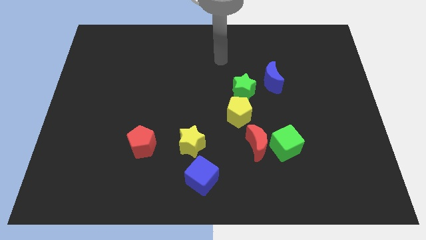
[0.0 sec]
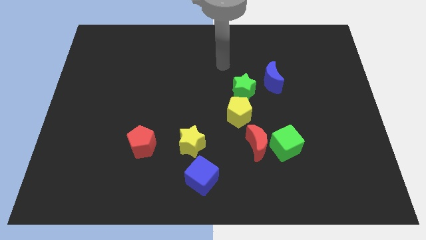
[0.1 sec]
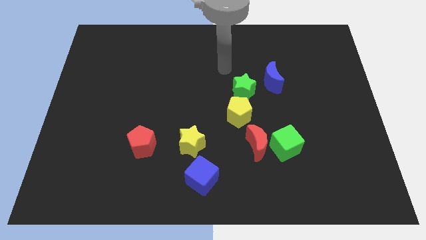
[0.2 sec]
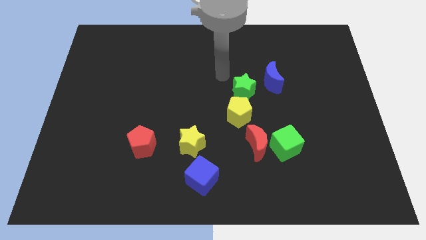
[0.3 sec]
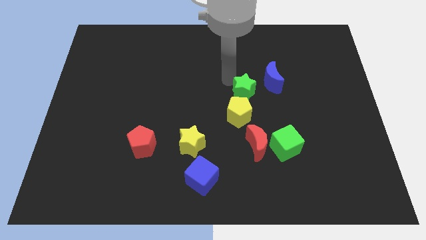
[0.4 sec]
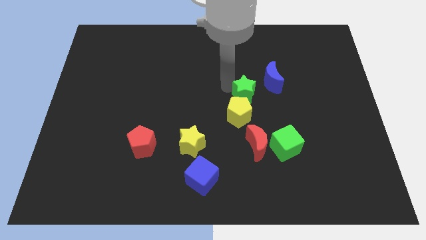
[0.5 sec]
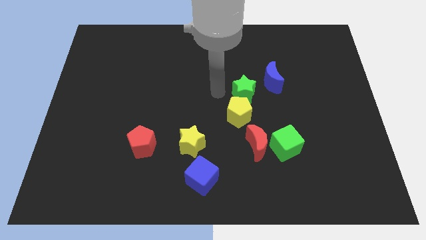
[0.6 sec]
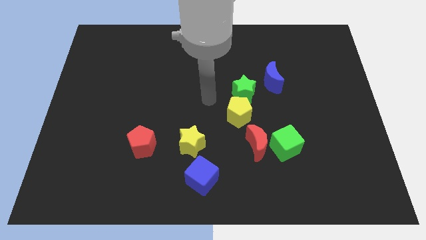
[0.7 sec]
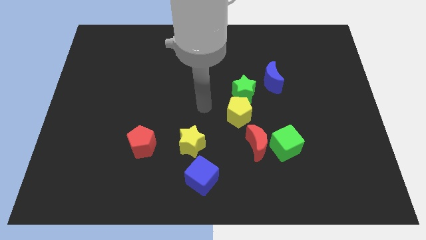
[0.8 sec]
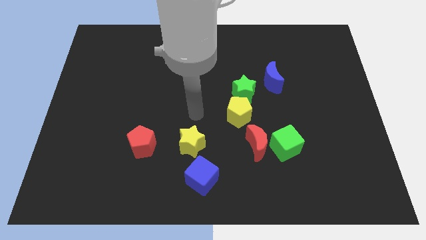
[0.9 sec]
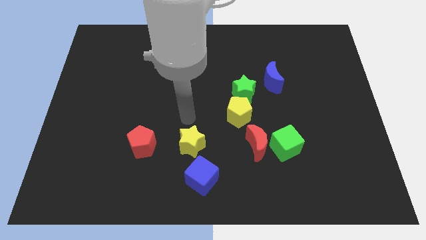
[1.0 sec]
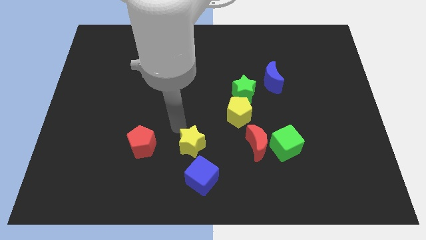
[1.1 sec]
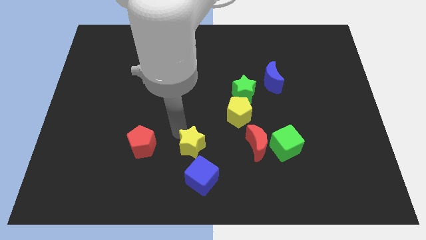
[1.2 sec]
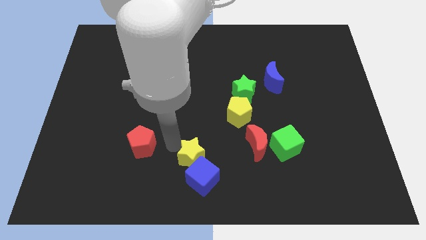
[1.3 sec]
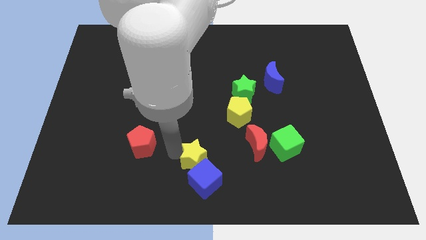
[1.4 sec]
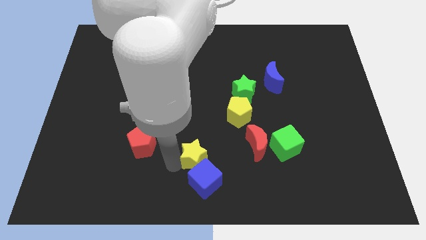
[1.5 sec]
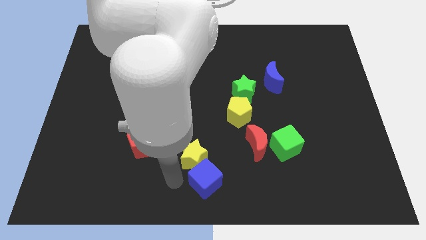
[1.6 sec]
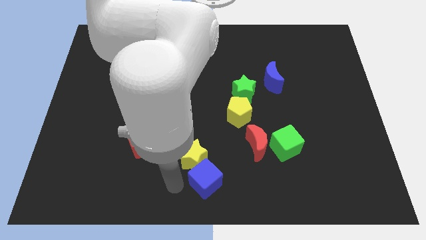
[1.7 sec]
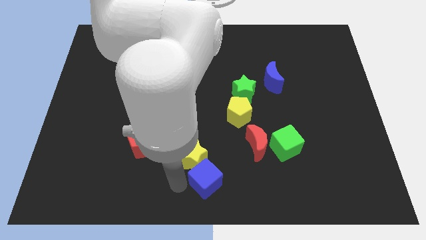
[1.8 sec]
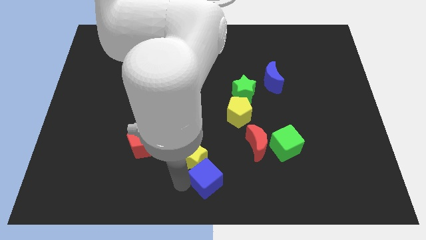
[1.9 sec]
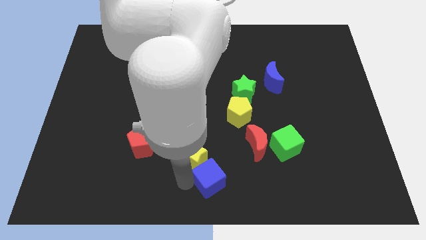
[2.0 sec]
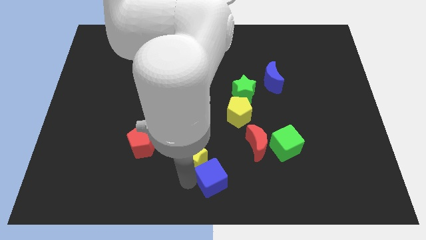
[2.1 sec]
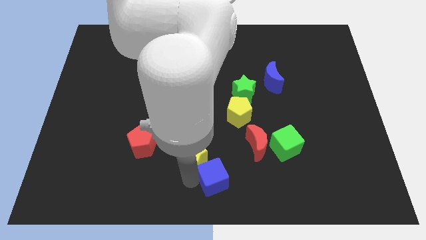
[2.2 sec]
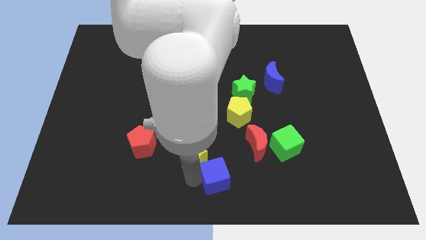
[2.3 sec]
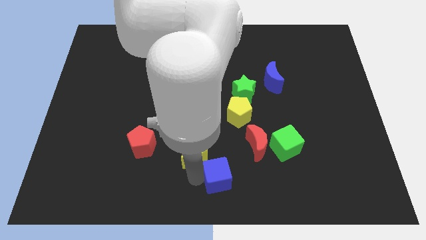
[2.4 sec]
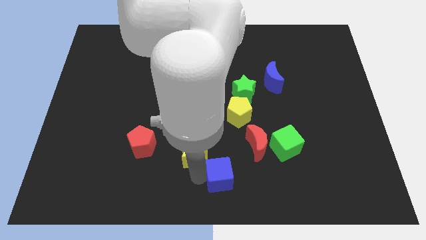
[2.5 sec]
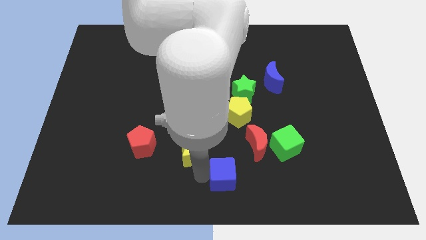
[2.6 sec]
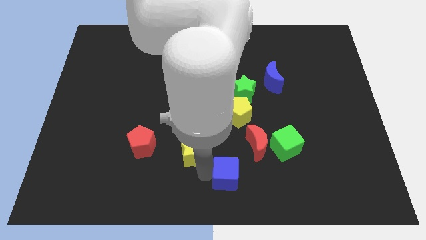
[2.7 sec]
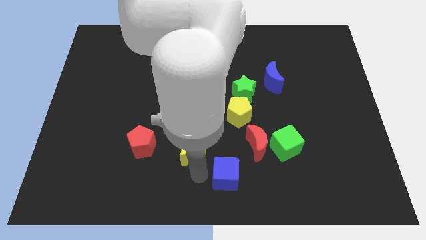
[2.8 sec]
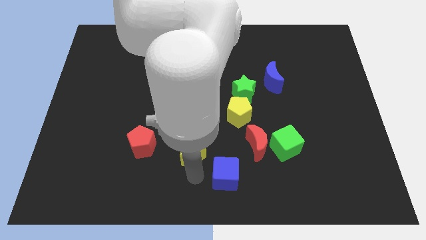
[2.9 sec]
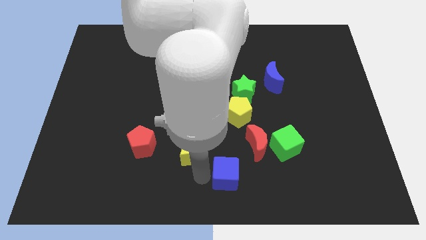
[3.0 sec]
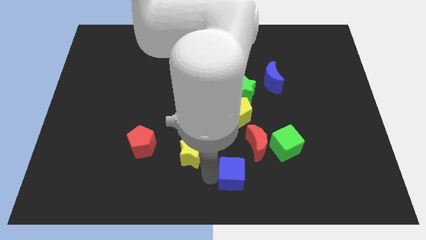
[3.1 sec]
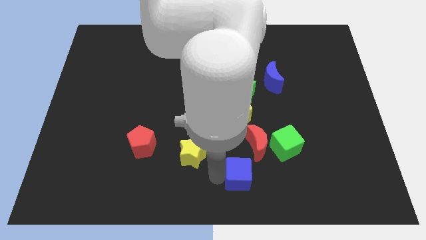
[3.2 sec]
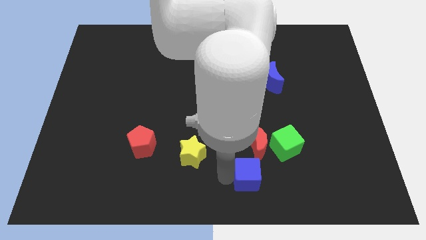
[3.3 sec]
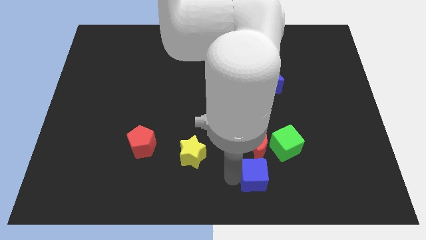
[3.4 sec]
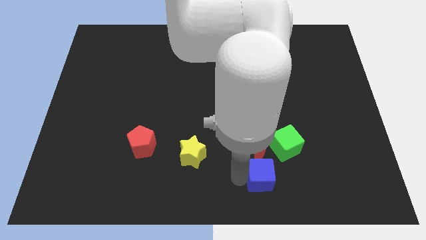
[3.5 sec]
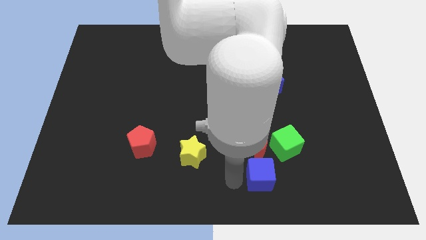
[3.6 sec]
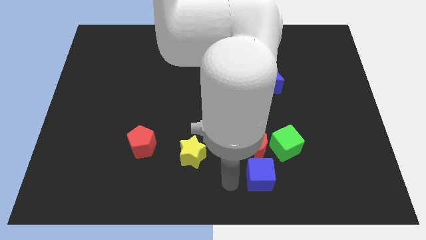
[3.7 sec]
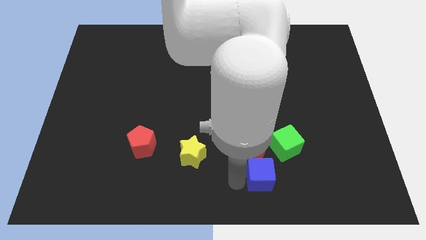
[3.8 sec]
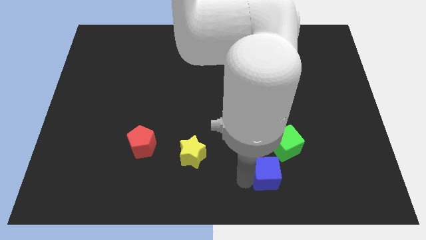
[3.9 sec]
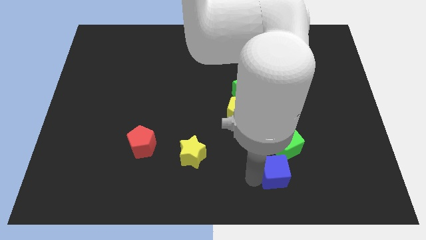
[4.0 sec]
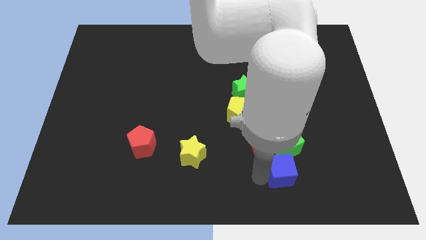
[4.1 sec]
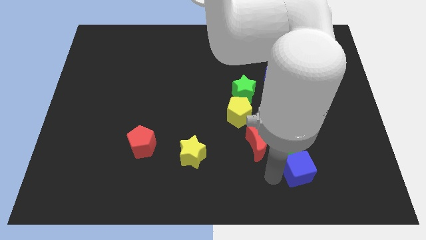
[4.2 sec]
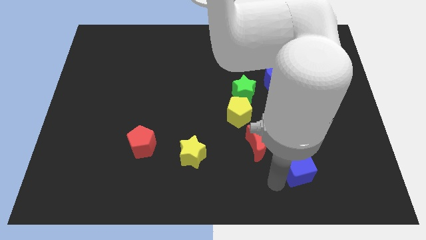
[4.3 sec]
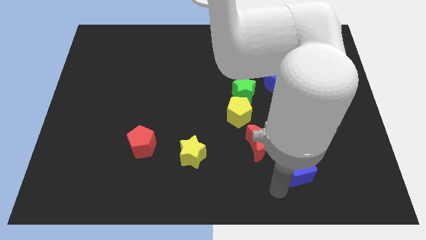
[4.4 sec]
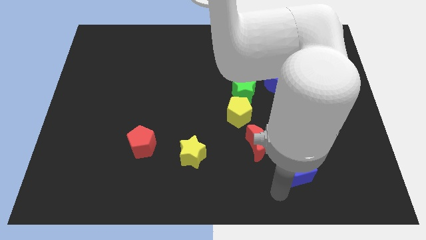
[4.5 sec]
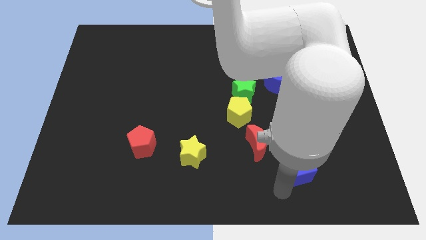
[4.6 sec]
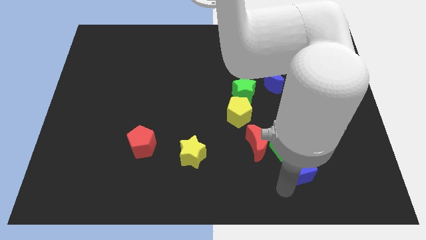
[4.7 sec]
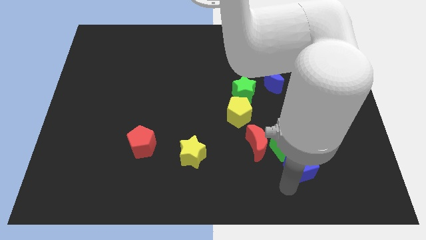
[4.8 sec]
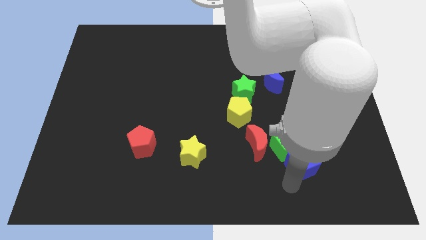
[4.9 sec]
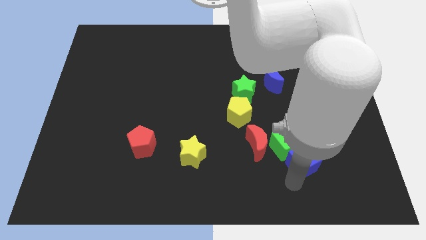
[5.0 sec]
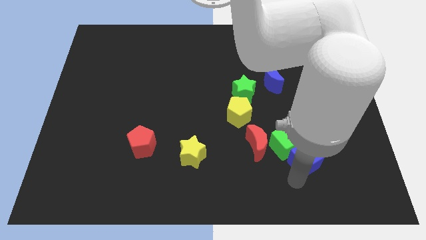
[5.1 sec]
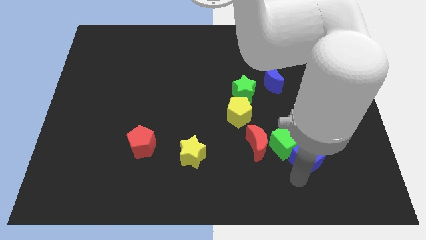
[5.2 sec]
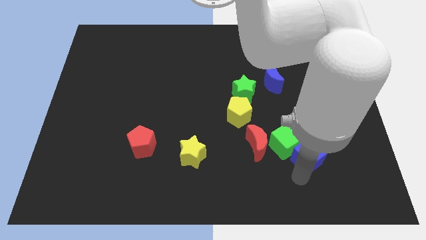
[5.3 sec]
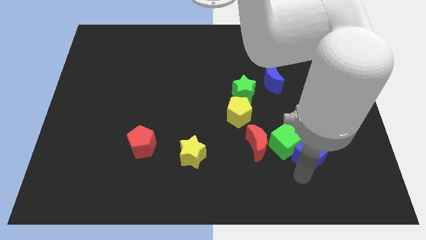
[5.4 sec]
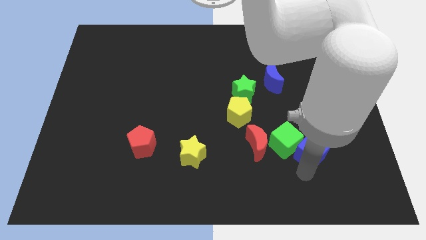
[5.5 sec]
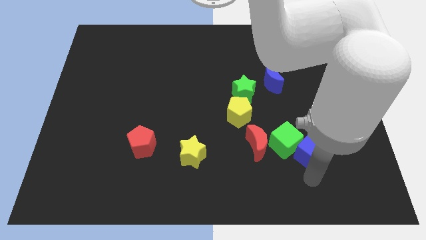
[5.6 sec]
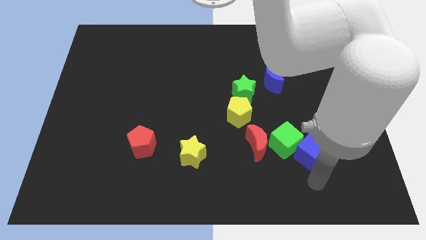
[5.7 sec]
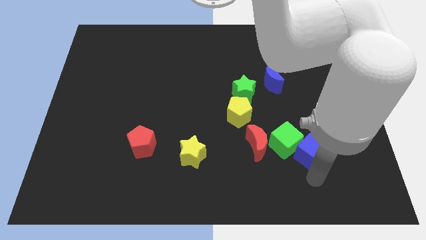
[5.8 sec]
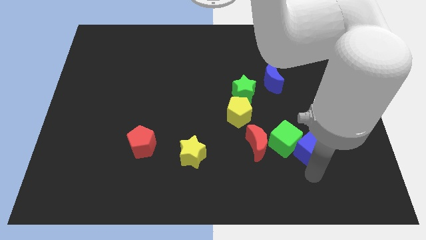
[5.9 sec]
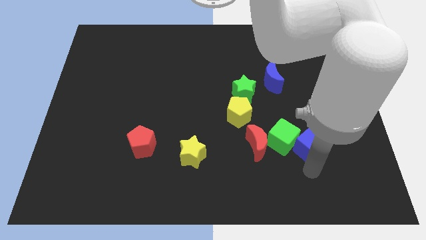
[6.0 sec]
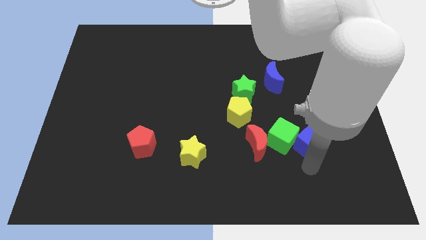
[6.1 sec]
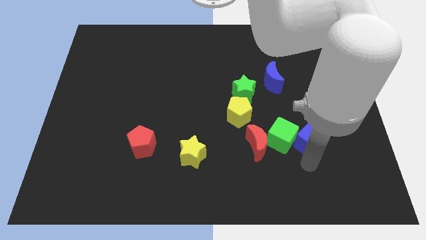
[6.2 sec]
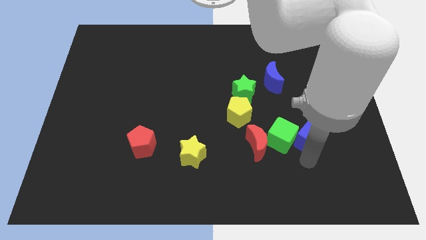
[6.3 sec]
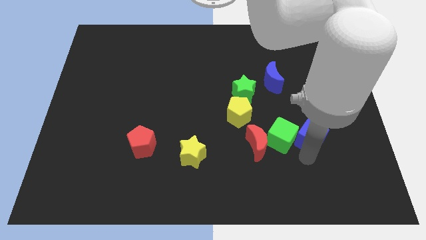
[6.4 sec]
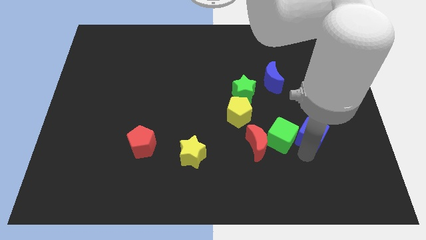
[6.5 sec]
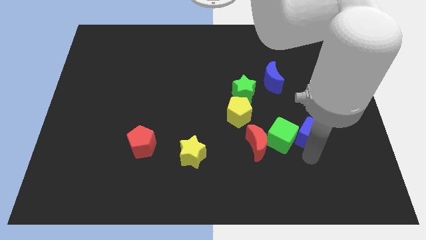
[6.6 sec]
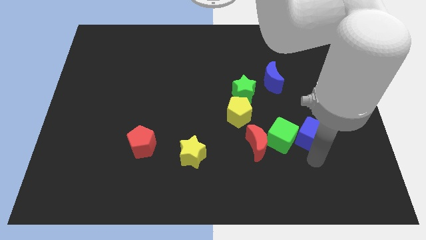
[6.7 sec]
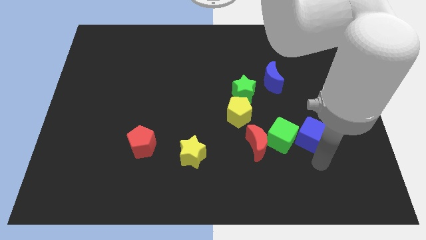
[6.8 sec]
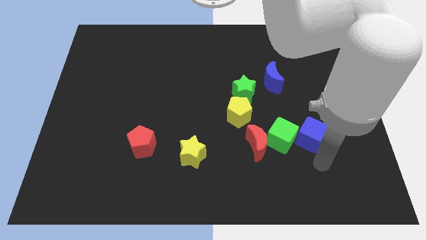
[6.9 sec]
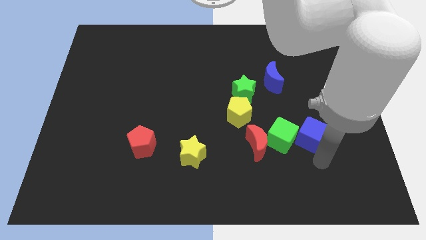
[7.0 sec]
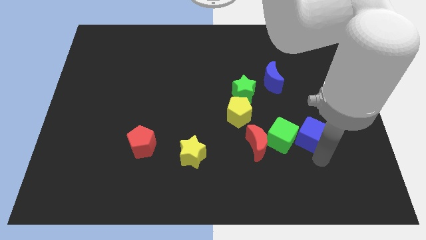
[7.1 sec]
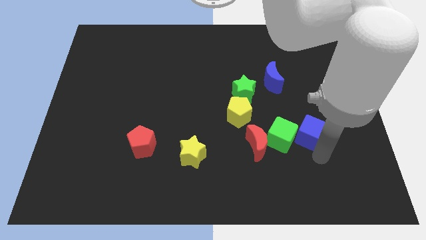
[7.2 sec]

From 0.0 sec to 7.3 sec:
push the blue cube upwards and to the right

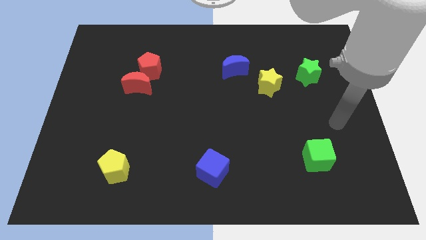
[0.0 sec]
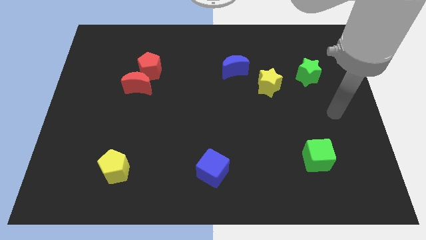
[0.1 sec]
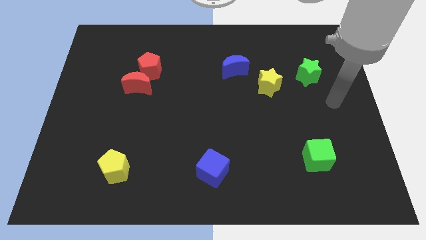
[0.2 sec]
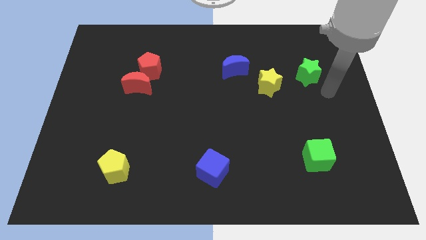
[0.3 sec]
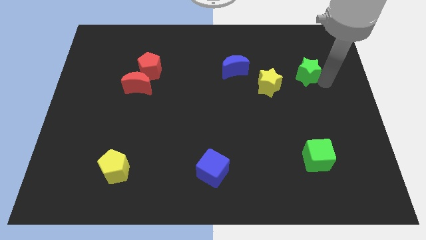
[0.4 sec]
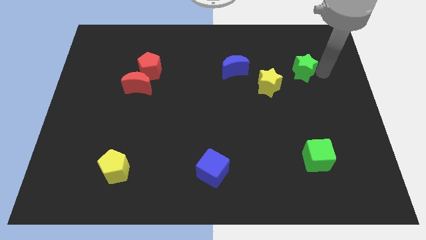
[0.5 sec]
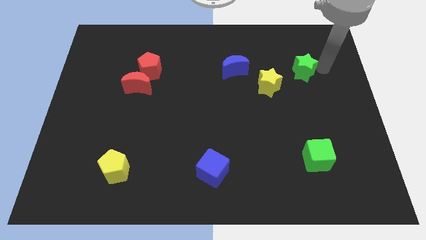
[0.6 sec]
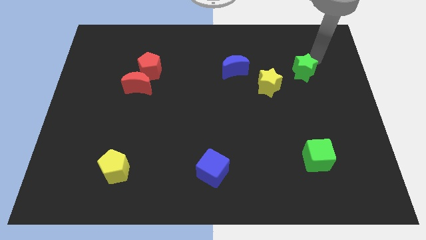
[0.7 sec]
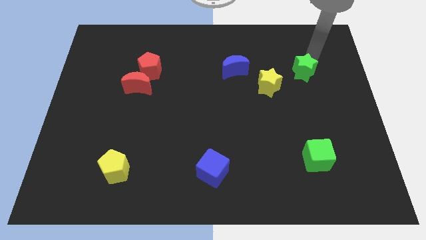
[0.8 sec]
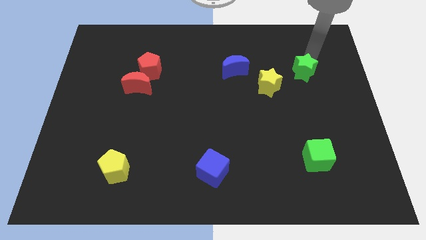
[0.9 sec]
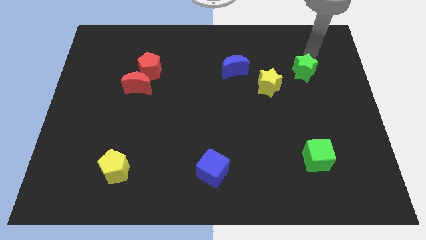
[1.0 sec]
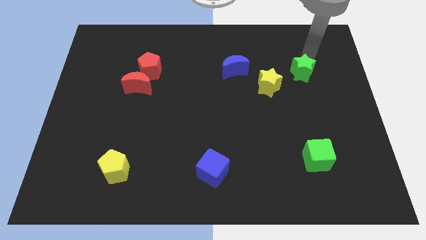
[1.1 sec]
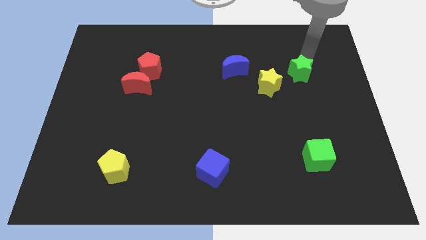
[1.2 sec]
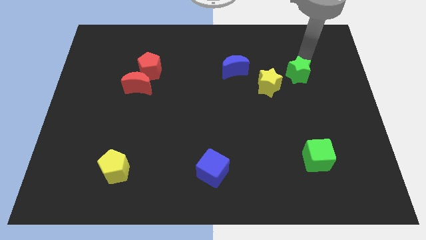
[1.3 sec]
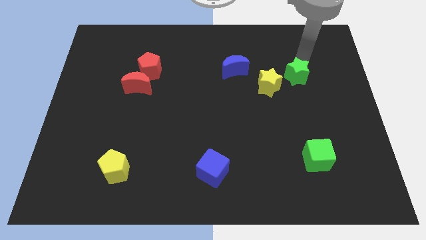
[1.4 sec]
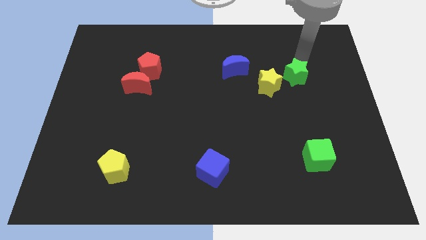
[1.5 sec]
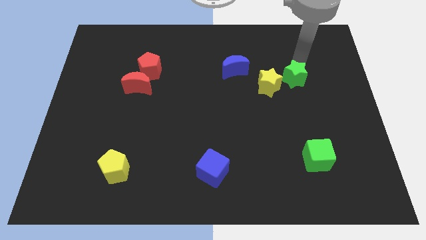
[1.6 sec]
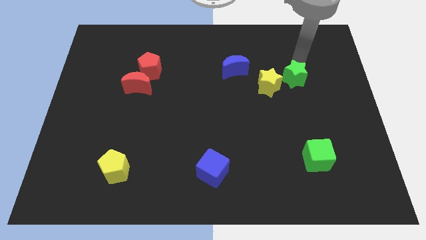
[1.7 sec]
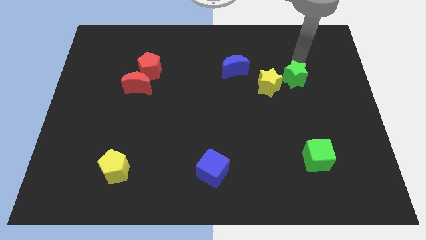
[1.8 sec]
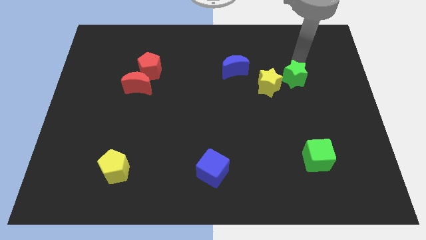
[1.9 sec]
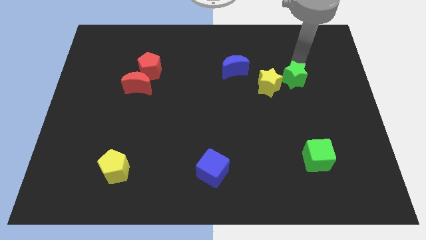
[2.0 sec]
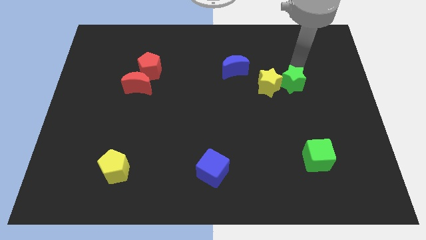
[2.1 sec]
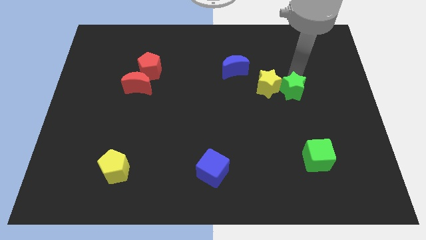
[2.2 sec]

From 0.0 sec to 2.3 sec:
slightly move the green star diagonally downwards and left
